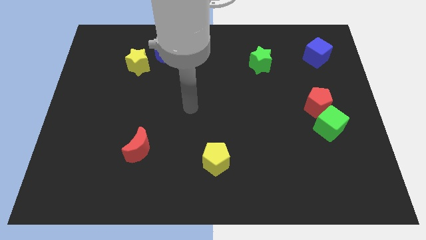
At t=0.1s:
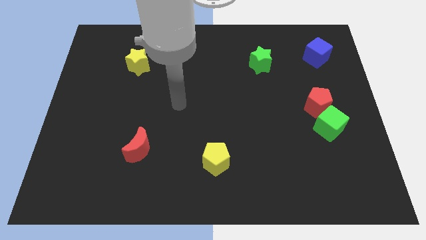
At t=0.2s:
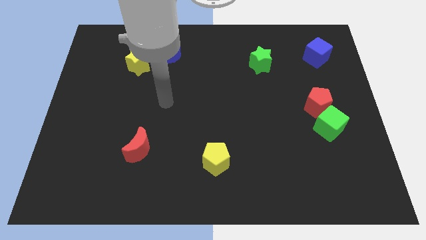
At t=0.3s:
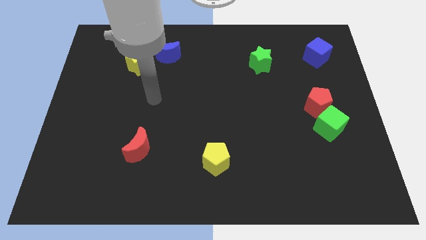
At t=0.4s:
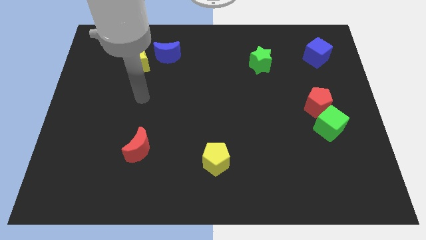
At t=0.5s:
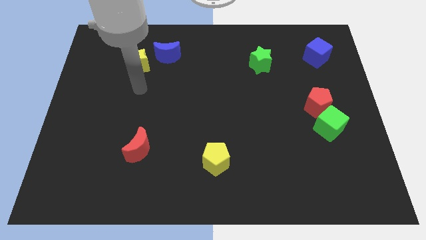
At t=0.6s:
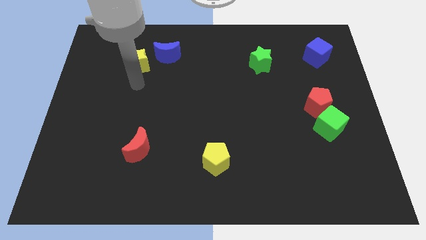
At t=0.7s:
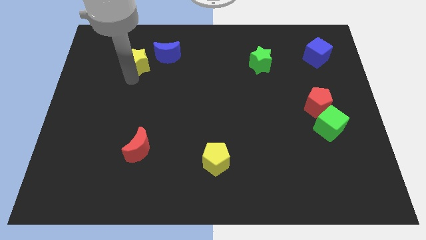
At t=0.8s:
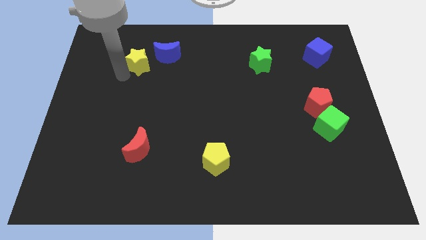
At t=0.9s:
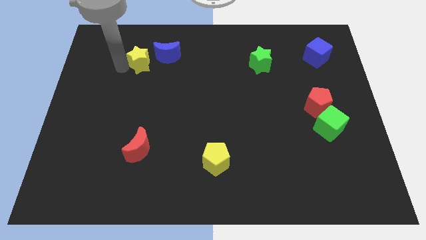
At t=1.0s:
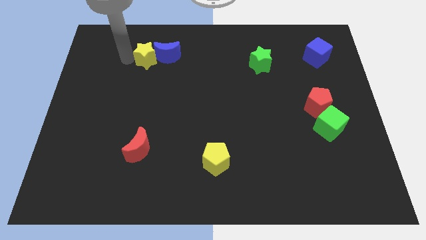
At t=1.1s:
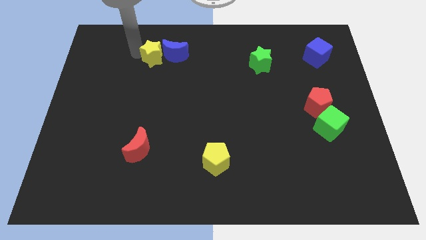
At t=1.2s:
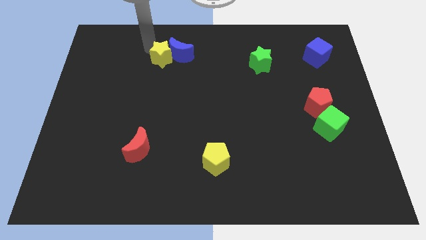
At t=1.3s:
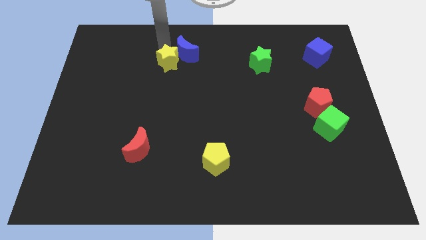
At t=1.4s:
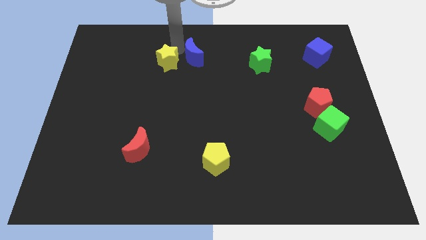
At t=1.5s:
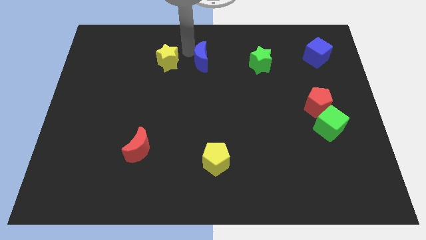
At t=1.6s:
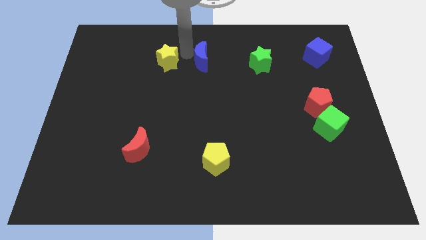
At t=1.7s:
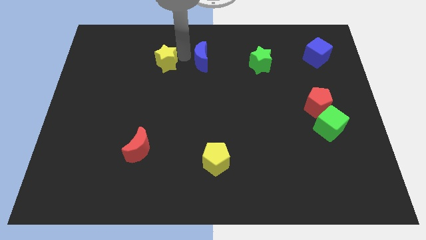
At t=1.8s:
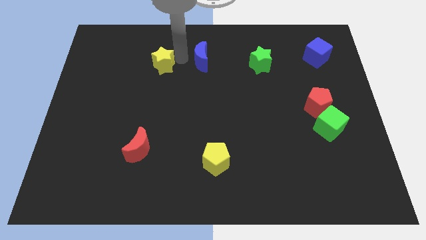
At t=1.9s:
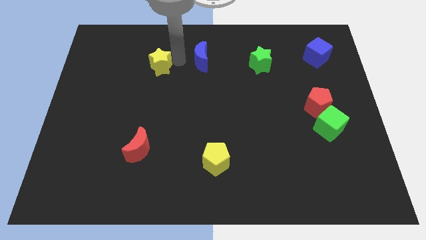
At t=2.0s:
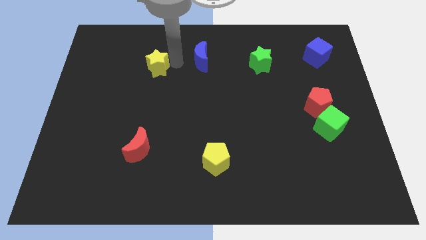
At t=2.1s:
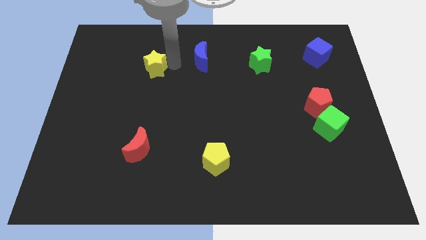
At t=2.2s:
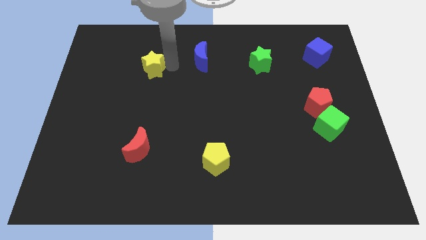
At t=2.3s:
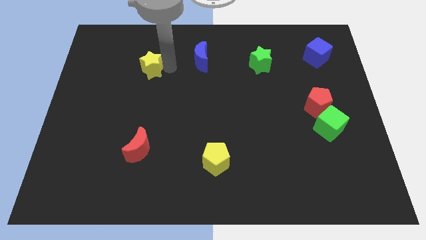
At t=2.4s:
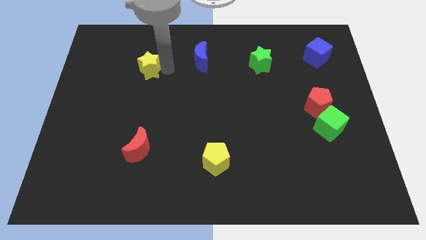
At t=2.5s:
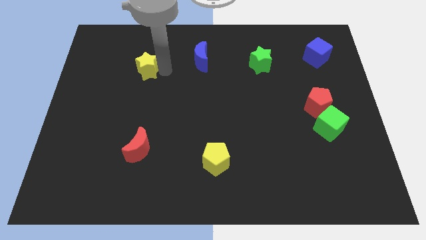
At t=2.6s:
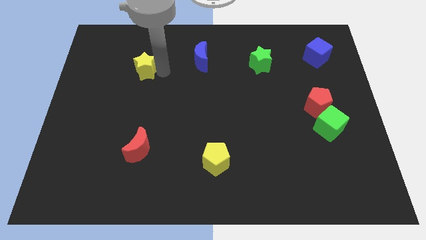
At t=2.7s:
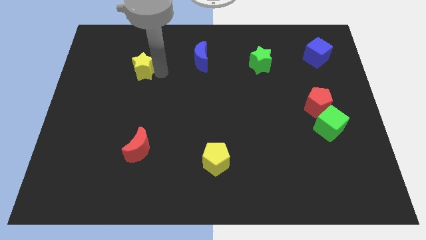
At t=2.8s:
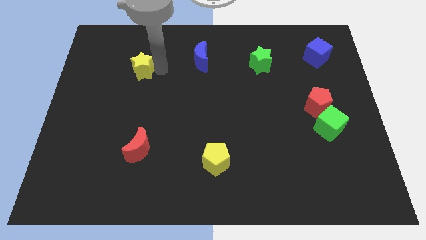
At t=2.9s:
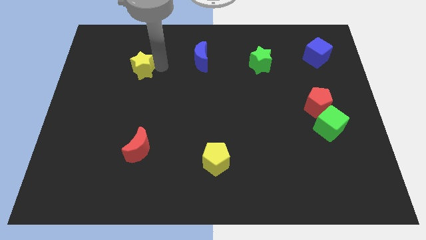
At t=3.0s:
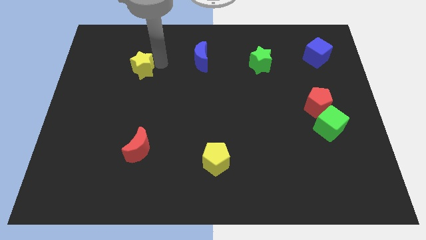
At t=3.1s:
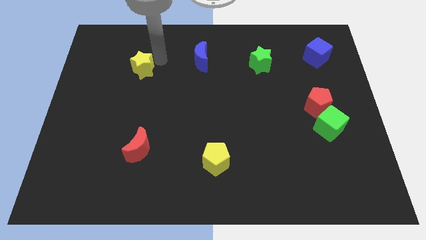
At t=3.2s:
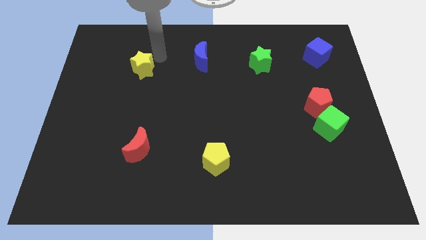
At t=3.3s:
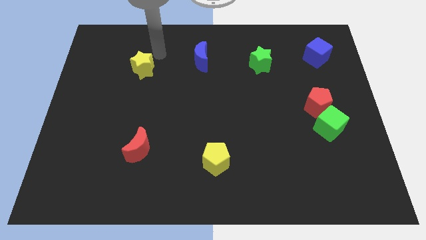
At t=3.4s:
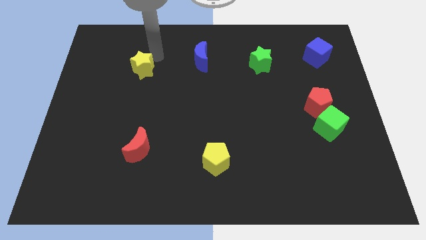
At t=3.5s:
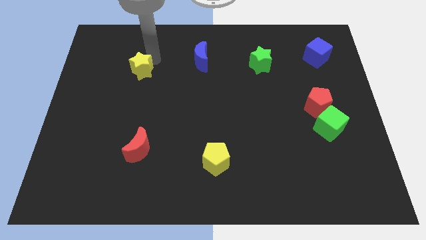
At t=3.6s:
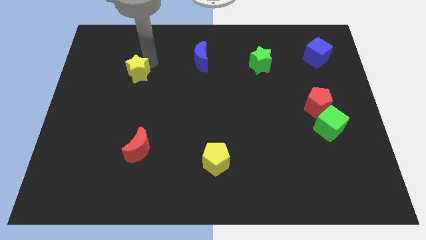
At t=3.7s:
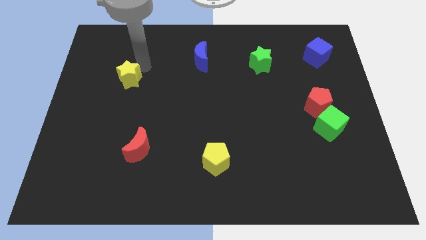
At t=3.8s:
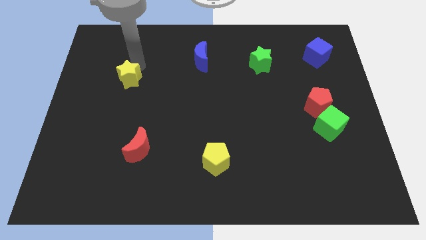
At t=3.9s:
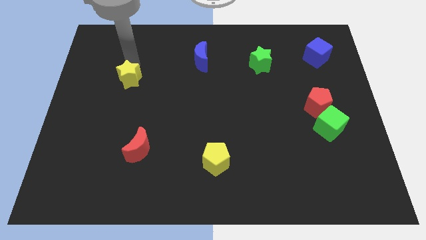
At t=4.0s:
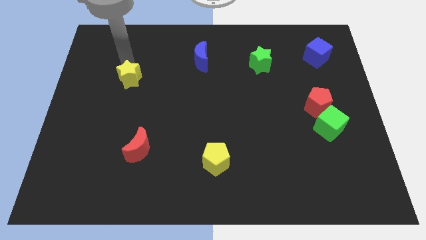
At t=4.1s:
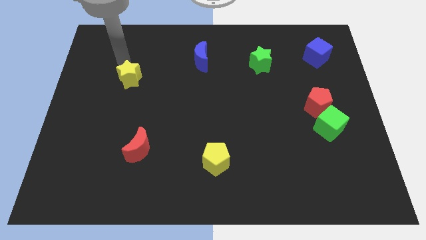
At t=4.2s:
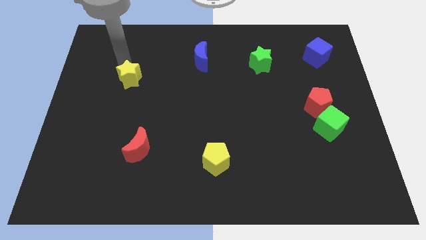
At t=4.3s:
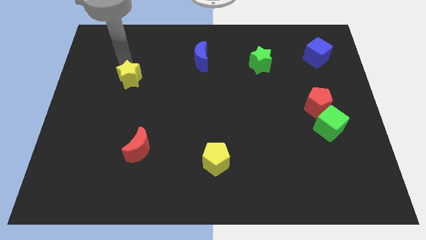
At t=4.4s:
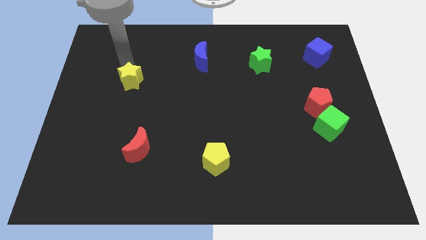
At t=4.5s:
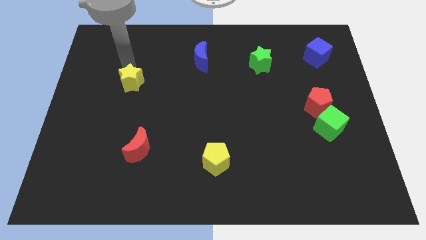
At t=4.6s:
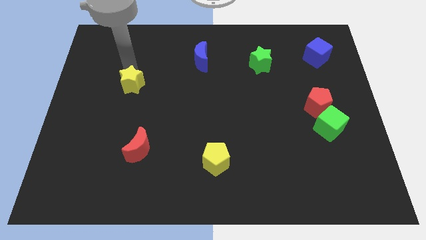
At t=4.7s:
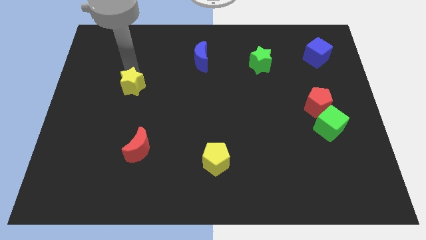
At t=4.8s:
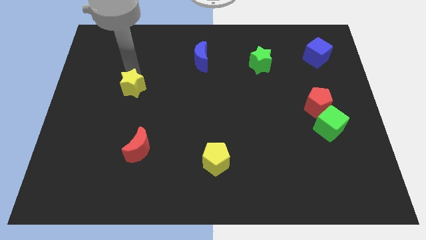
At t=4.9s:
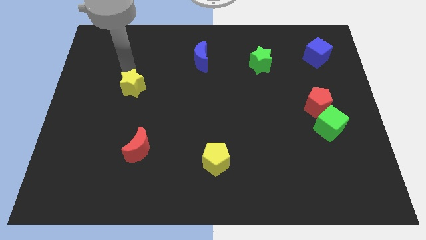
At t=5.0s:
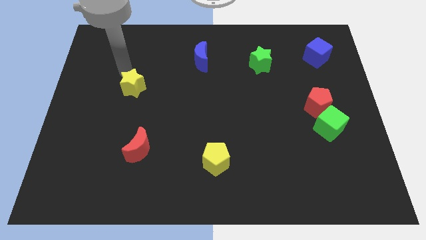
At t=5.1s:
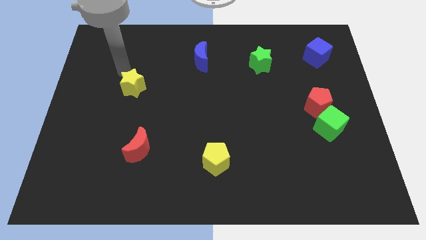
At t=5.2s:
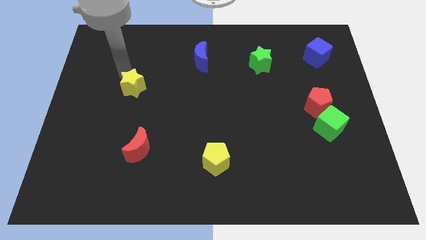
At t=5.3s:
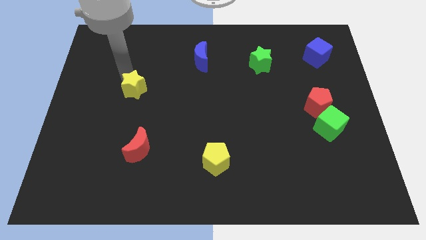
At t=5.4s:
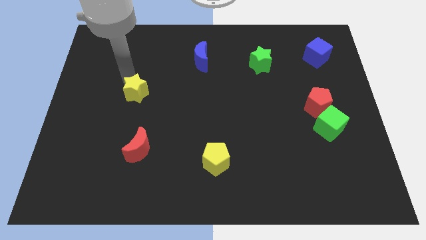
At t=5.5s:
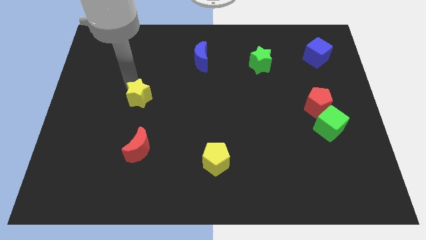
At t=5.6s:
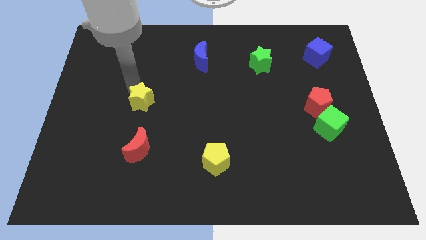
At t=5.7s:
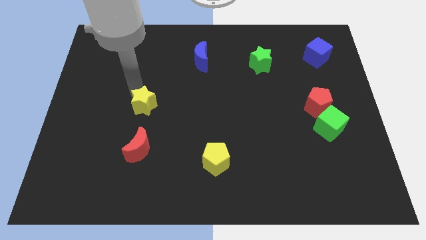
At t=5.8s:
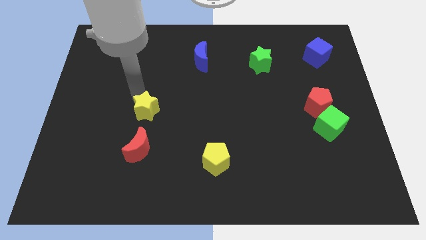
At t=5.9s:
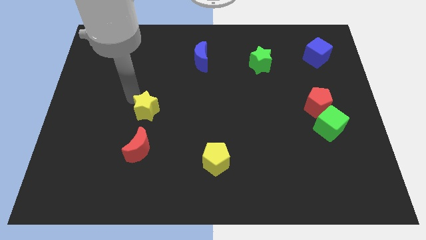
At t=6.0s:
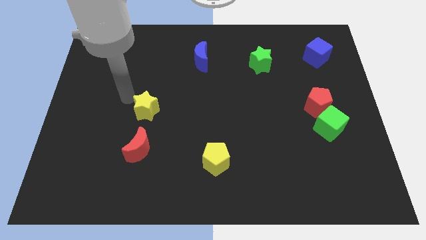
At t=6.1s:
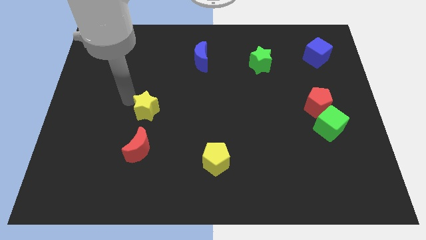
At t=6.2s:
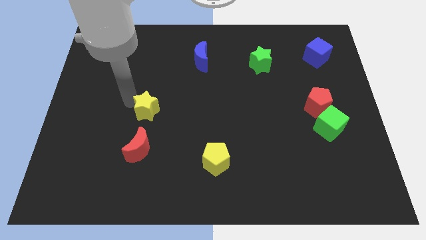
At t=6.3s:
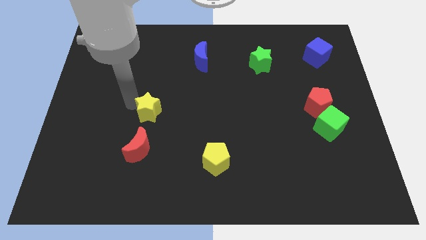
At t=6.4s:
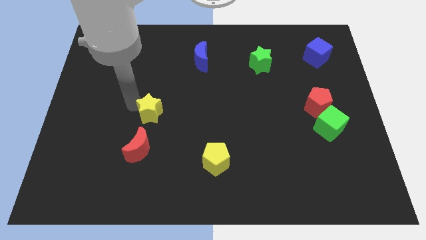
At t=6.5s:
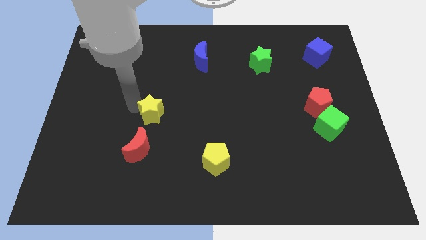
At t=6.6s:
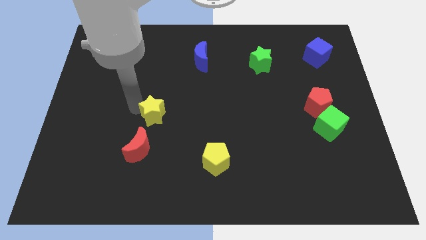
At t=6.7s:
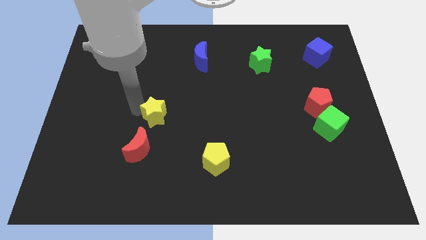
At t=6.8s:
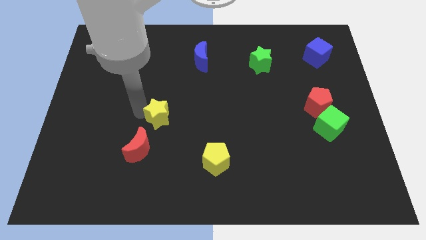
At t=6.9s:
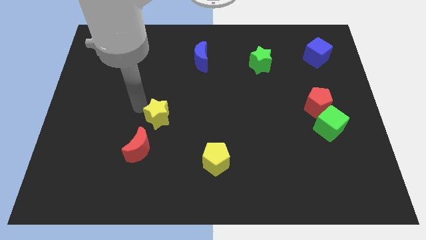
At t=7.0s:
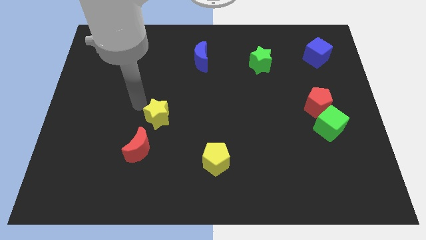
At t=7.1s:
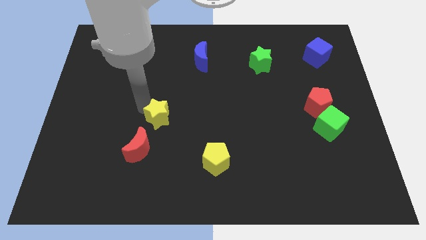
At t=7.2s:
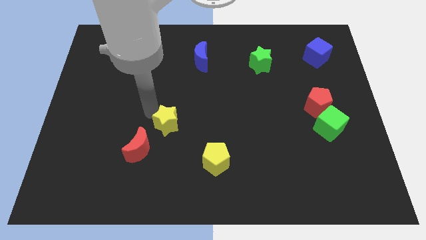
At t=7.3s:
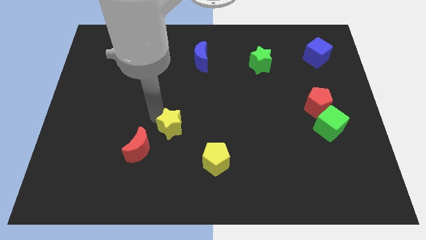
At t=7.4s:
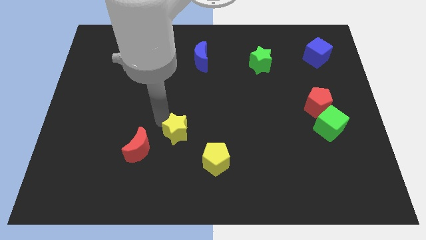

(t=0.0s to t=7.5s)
slide the yellow star to the top left of the yellow pentagon

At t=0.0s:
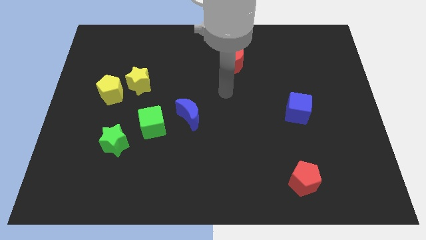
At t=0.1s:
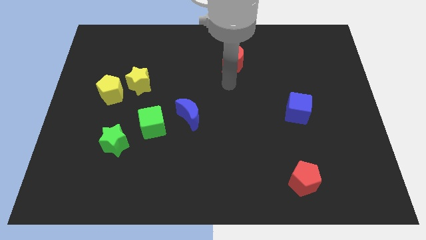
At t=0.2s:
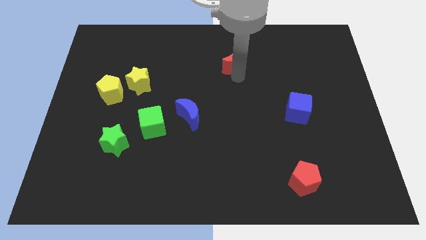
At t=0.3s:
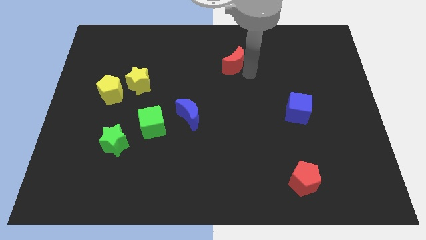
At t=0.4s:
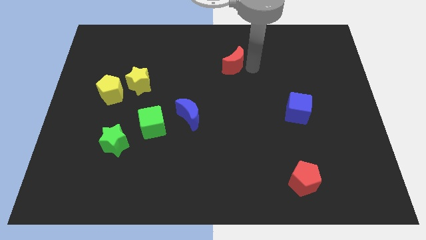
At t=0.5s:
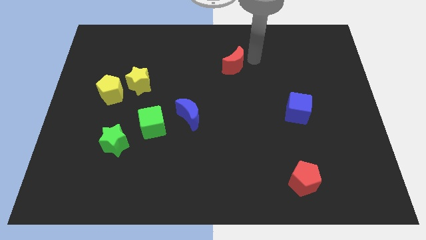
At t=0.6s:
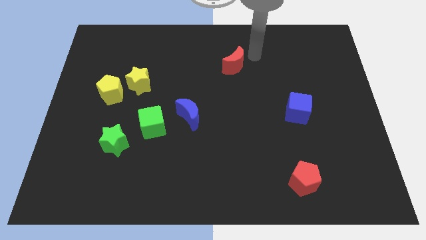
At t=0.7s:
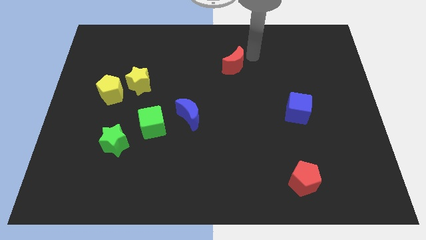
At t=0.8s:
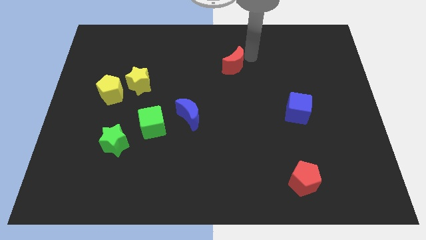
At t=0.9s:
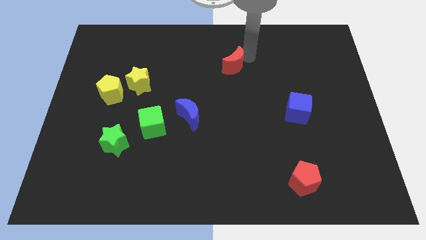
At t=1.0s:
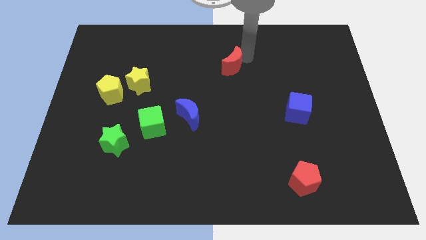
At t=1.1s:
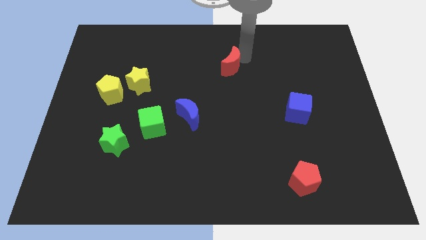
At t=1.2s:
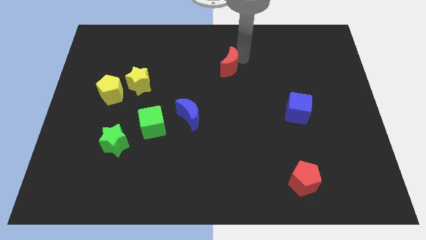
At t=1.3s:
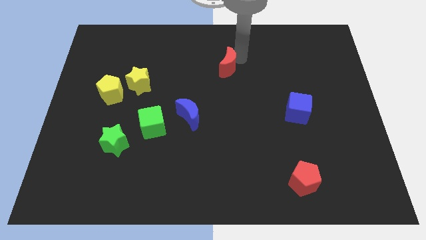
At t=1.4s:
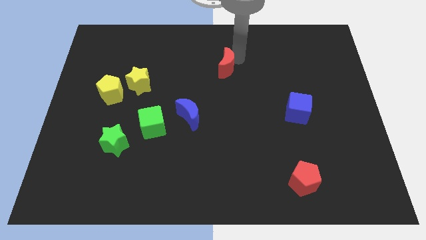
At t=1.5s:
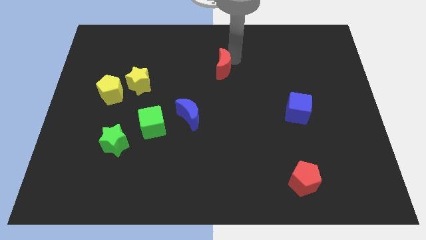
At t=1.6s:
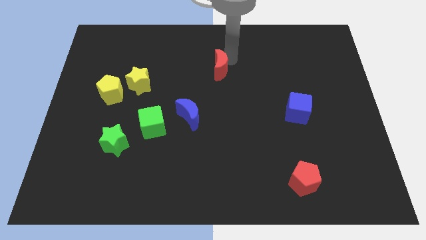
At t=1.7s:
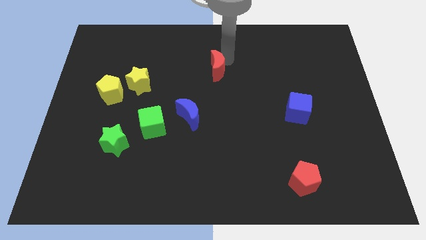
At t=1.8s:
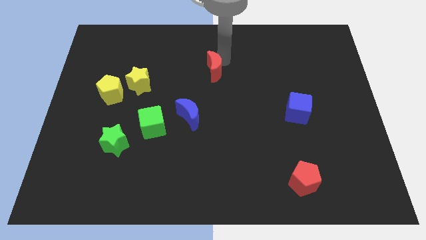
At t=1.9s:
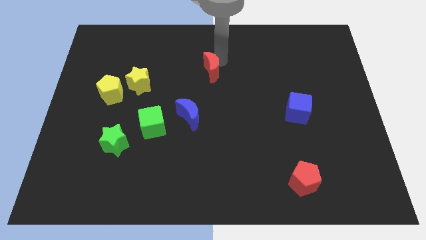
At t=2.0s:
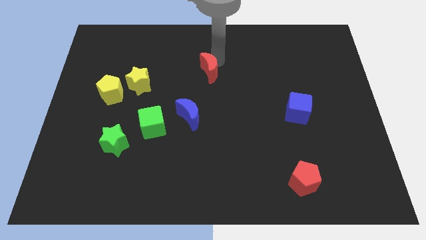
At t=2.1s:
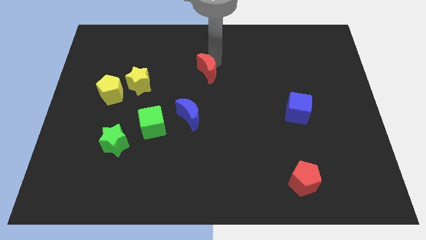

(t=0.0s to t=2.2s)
move the red moon to the top side of the blue moon
